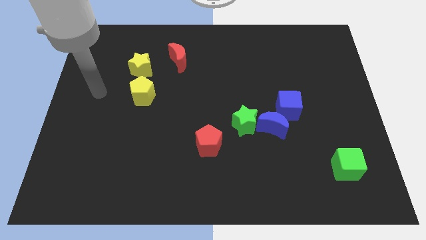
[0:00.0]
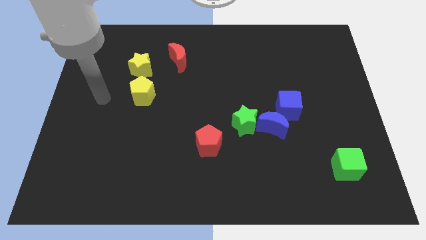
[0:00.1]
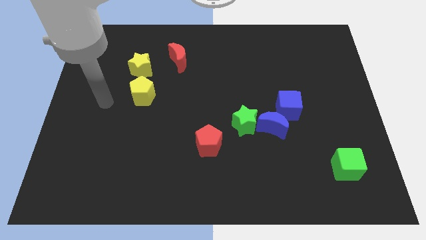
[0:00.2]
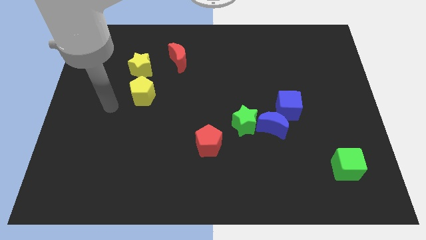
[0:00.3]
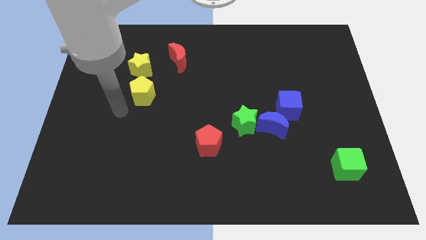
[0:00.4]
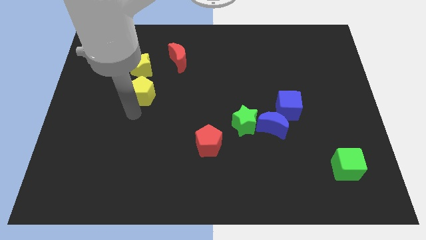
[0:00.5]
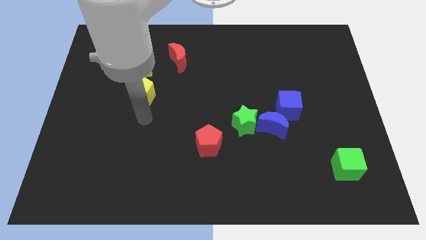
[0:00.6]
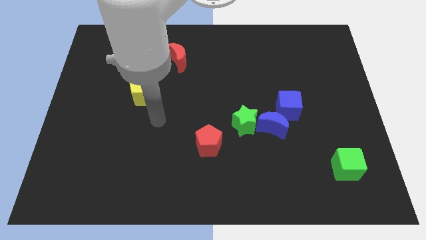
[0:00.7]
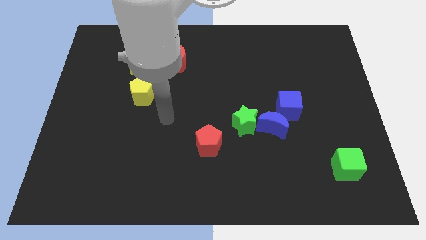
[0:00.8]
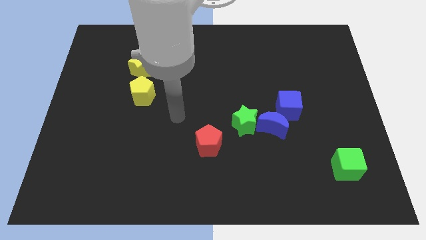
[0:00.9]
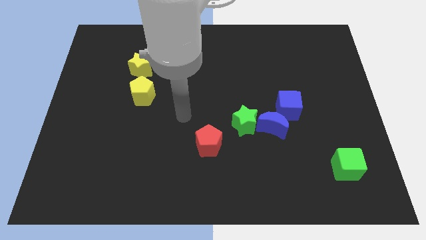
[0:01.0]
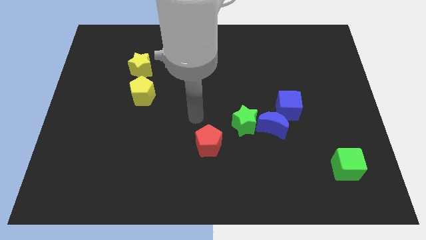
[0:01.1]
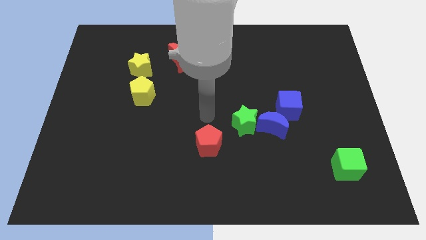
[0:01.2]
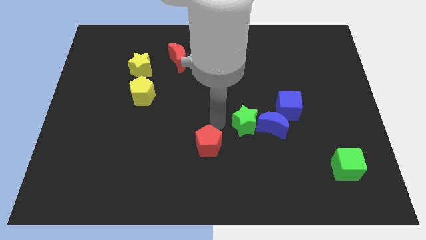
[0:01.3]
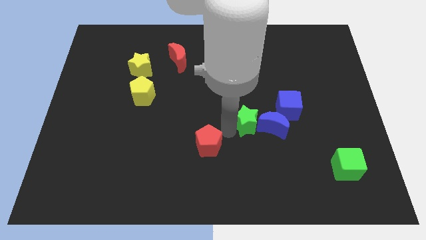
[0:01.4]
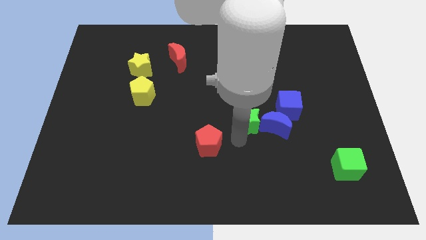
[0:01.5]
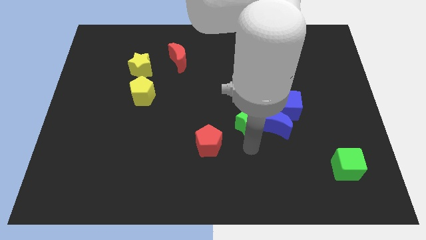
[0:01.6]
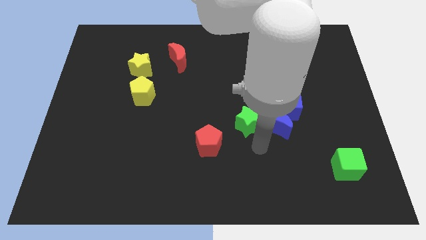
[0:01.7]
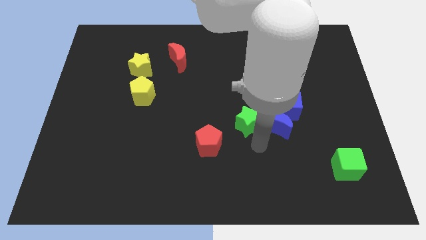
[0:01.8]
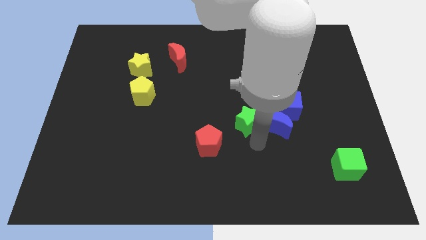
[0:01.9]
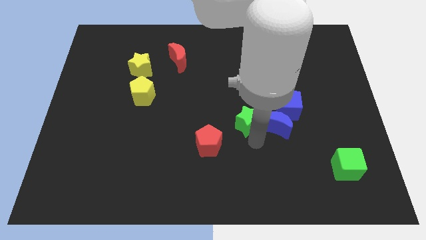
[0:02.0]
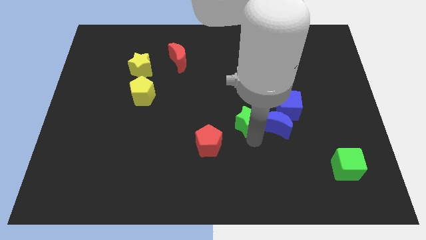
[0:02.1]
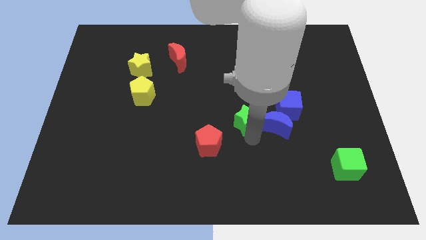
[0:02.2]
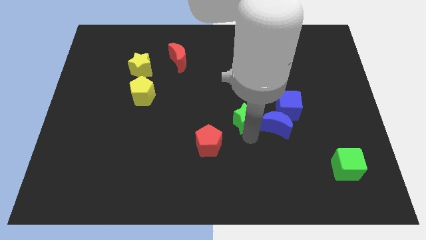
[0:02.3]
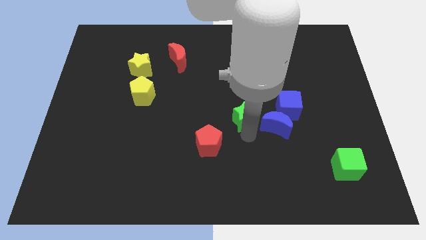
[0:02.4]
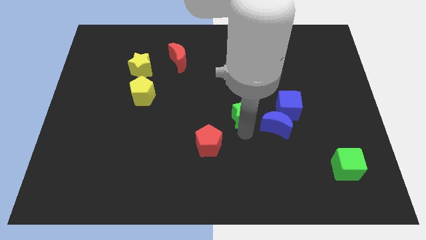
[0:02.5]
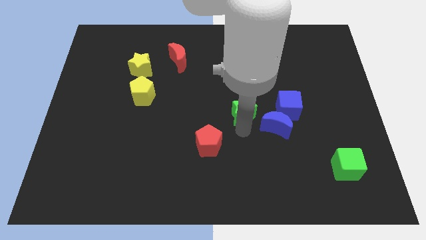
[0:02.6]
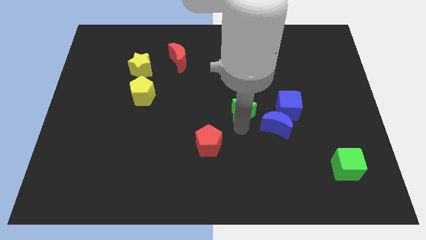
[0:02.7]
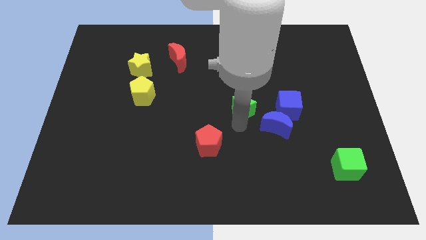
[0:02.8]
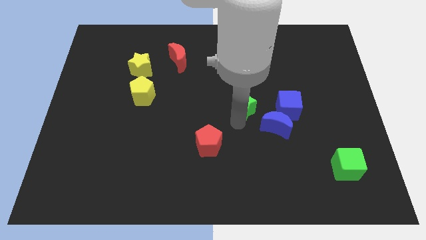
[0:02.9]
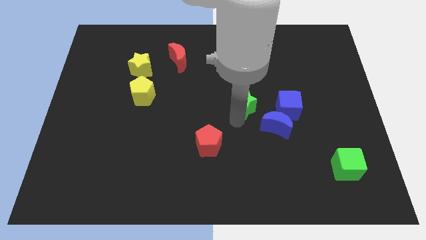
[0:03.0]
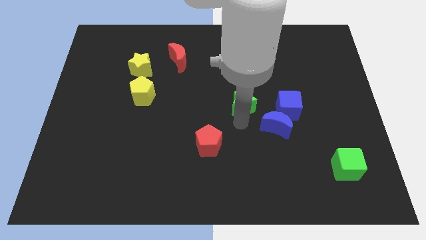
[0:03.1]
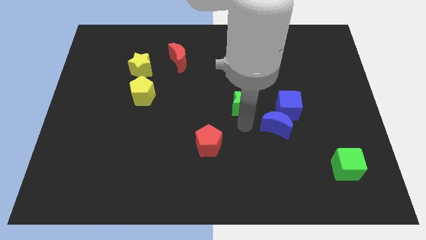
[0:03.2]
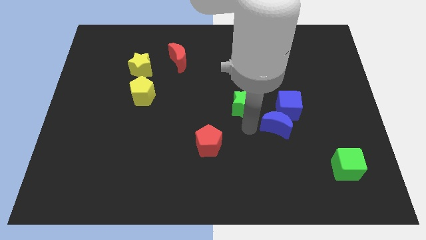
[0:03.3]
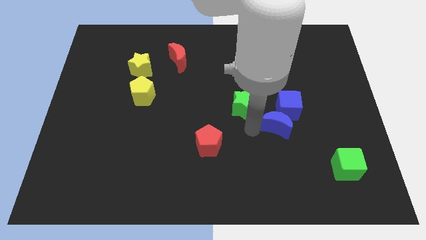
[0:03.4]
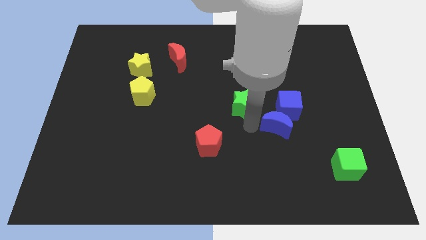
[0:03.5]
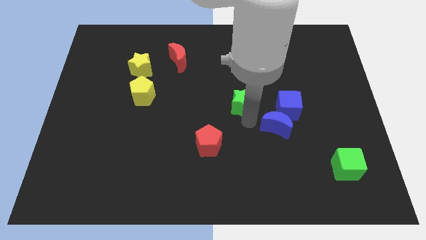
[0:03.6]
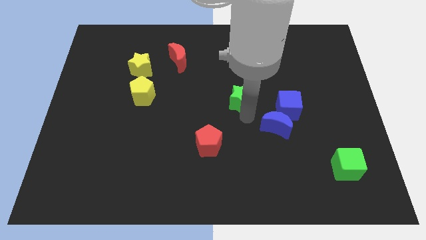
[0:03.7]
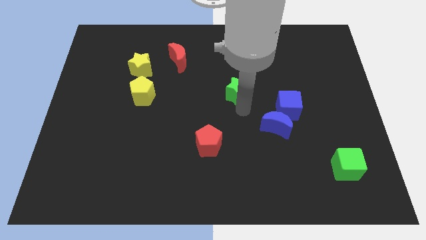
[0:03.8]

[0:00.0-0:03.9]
move the green star somewhat upwards

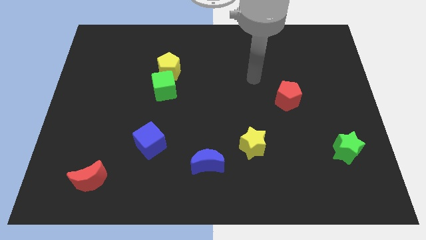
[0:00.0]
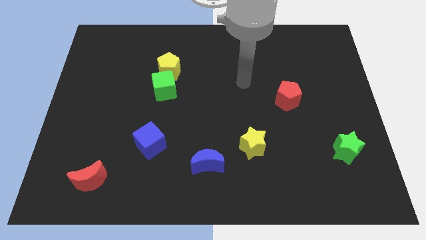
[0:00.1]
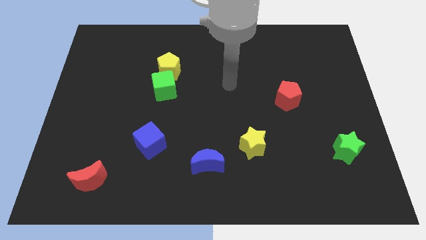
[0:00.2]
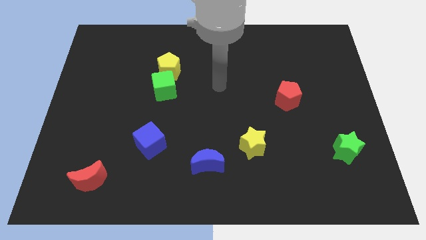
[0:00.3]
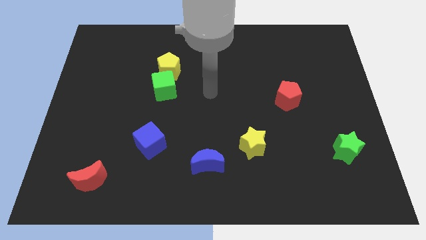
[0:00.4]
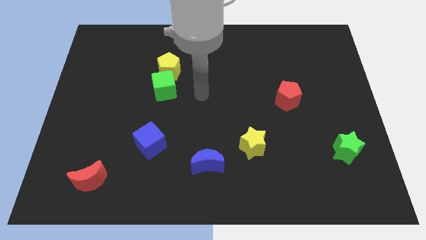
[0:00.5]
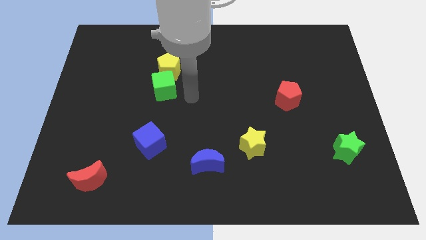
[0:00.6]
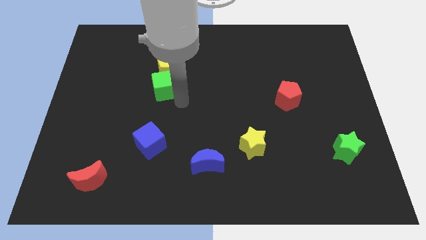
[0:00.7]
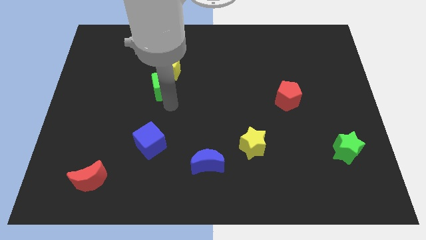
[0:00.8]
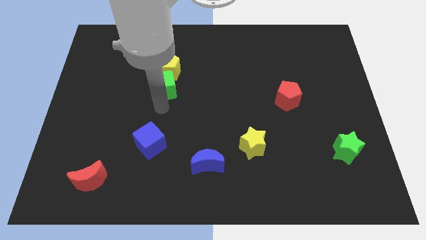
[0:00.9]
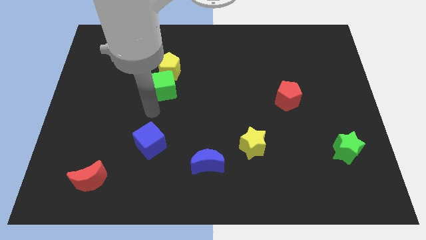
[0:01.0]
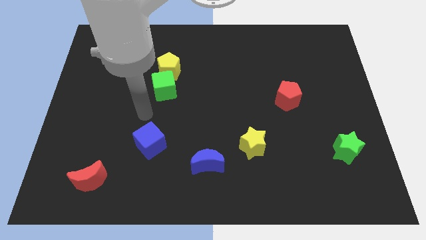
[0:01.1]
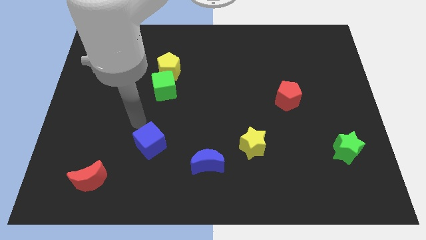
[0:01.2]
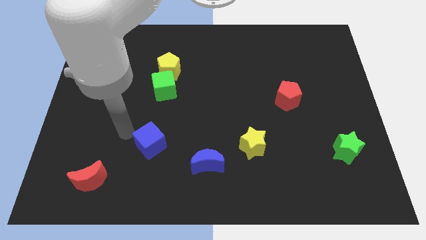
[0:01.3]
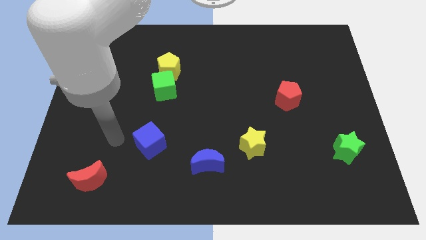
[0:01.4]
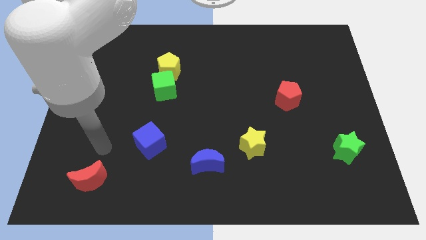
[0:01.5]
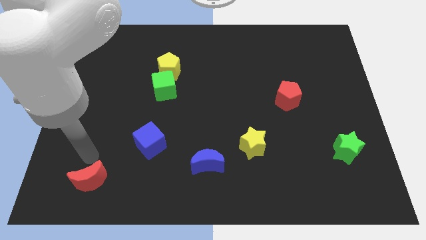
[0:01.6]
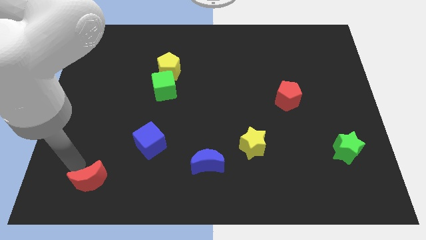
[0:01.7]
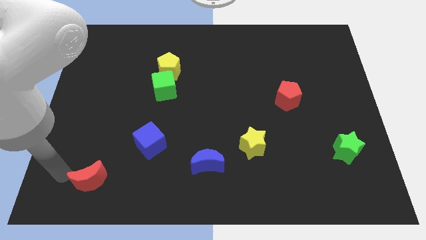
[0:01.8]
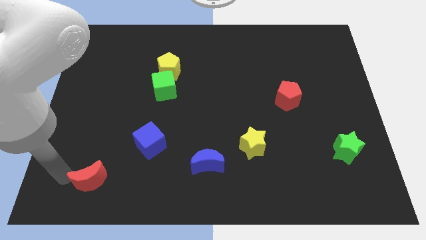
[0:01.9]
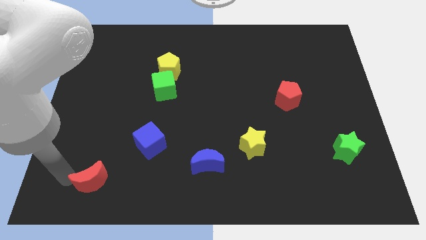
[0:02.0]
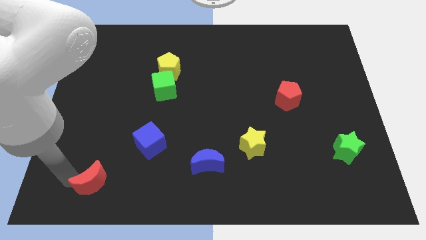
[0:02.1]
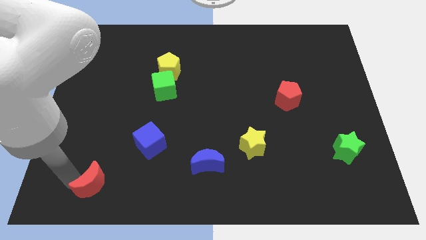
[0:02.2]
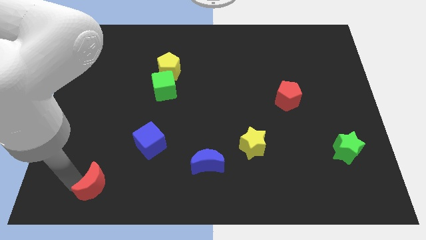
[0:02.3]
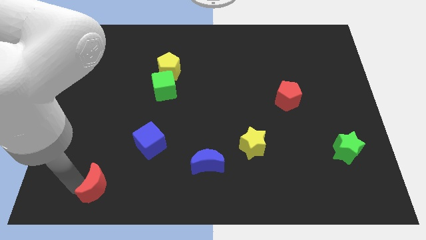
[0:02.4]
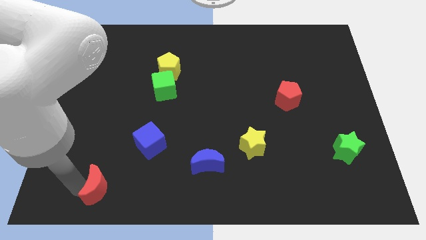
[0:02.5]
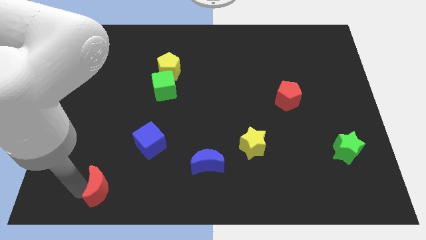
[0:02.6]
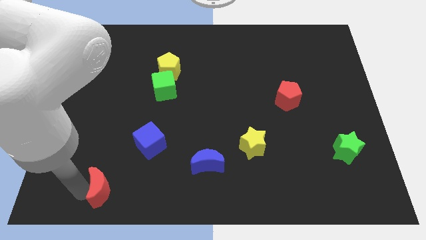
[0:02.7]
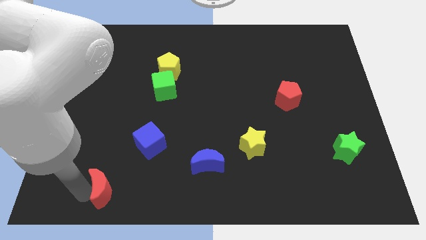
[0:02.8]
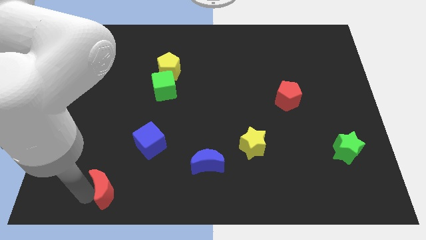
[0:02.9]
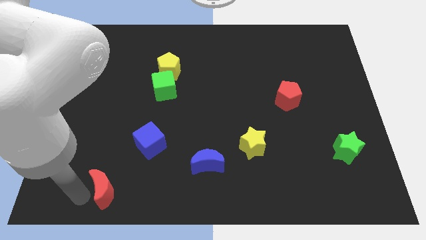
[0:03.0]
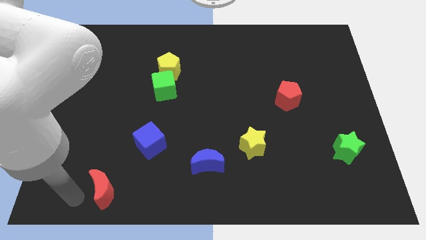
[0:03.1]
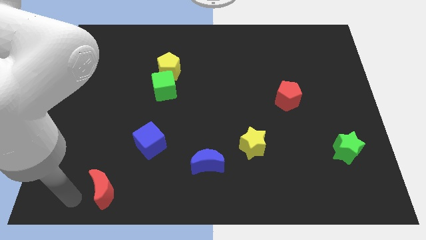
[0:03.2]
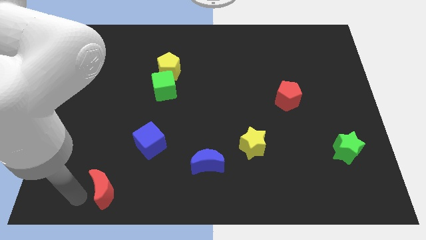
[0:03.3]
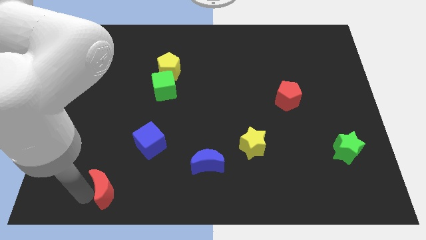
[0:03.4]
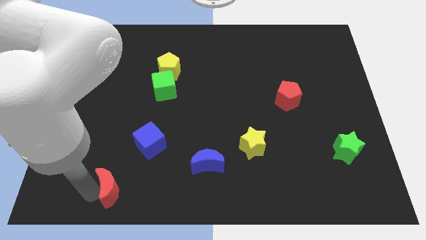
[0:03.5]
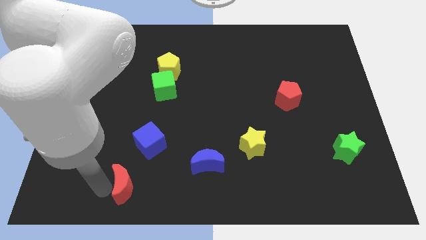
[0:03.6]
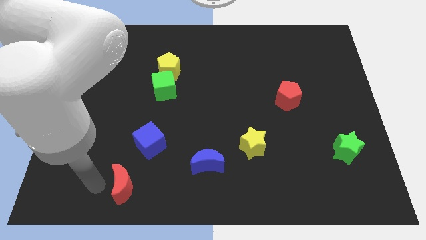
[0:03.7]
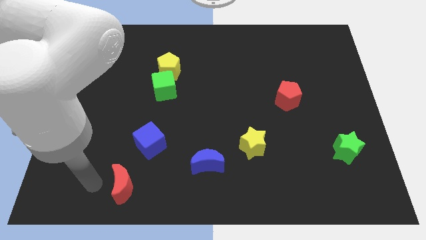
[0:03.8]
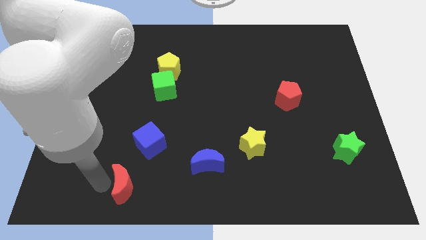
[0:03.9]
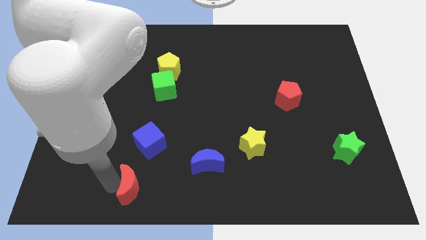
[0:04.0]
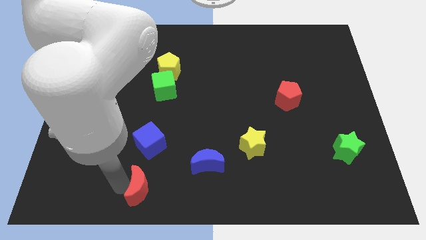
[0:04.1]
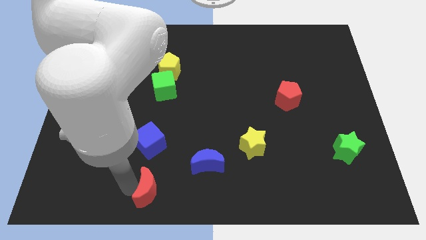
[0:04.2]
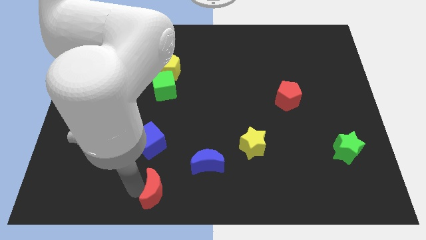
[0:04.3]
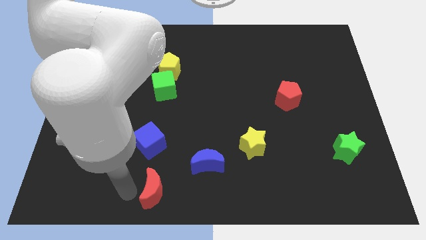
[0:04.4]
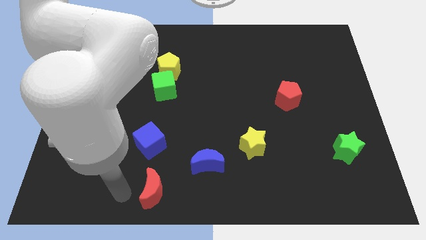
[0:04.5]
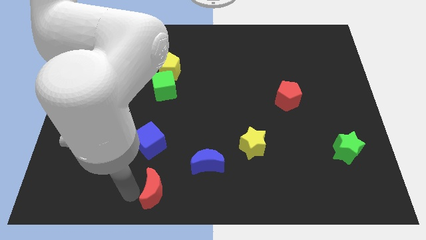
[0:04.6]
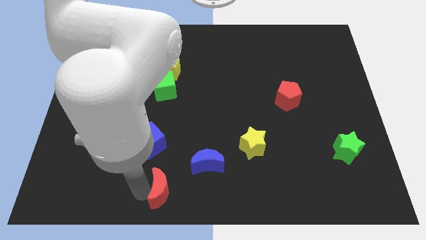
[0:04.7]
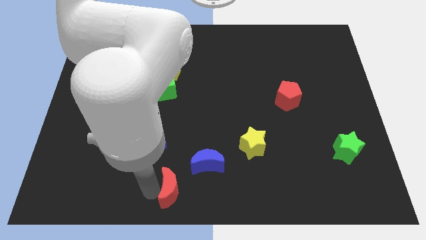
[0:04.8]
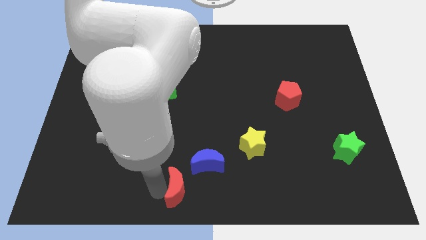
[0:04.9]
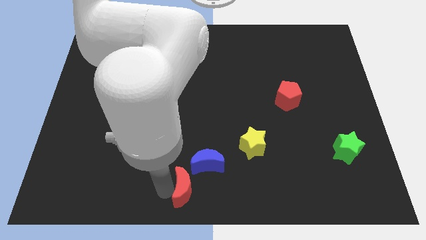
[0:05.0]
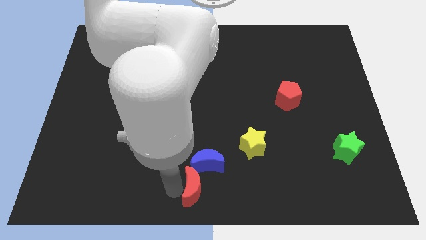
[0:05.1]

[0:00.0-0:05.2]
slide the red moon right
